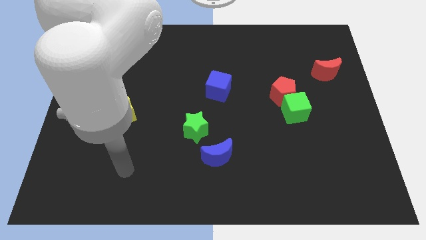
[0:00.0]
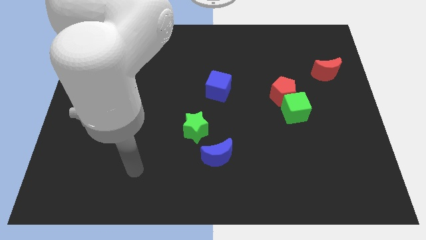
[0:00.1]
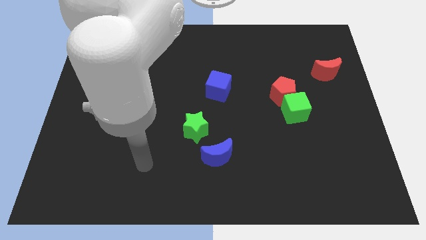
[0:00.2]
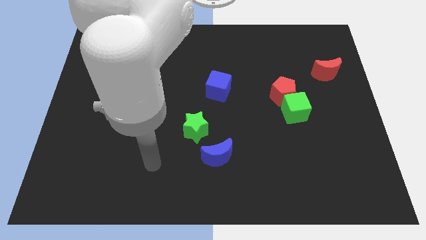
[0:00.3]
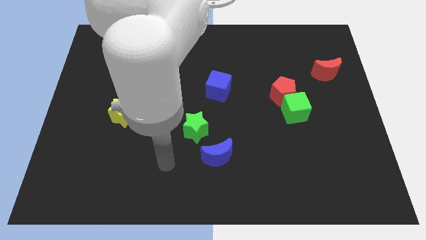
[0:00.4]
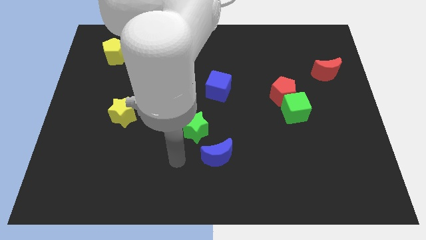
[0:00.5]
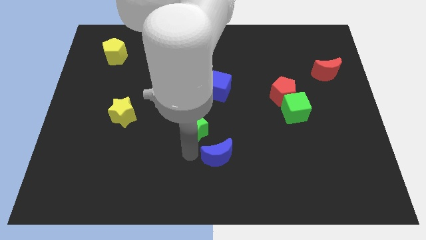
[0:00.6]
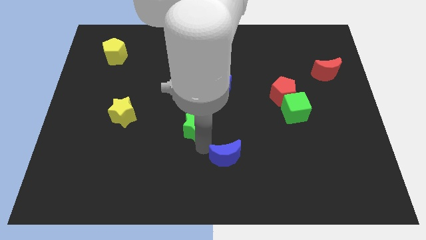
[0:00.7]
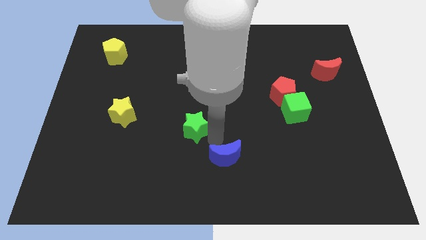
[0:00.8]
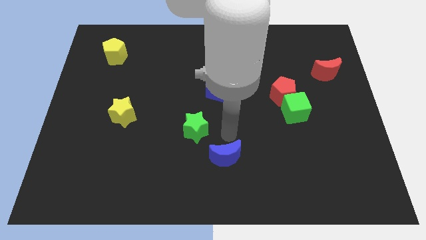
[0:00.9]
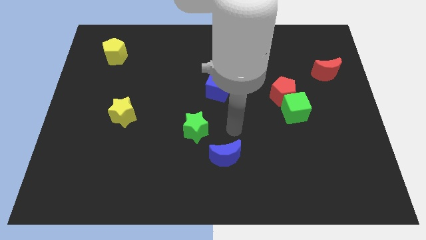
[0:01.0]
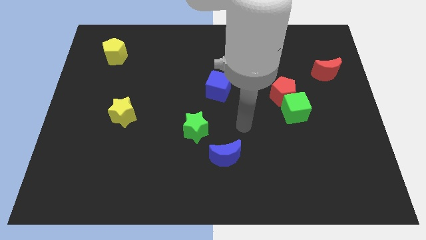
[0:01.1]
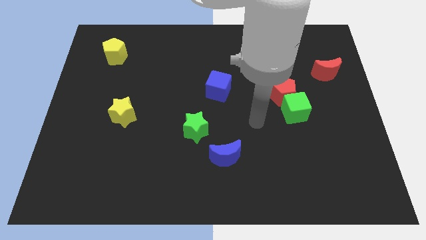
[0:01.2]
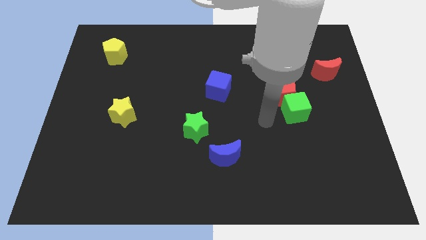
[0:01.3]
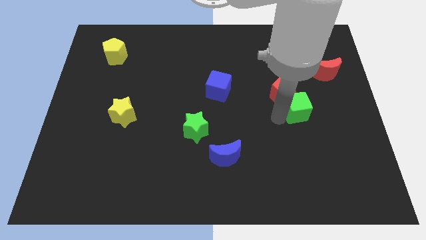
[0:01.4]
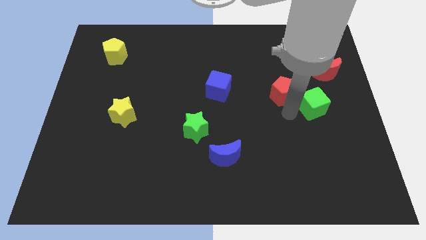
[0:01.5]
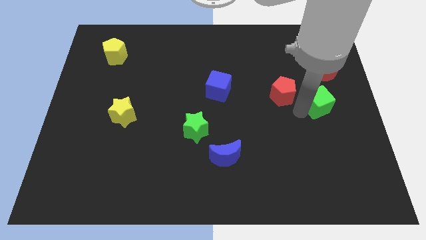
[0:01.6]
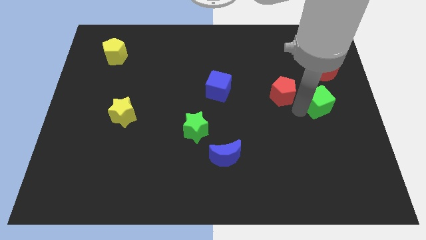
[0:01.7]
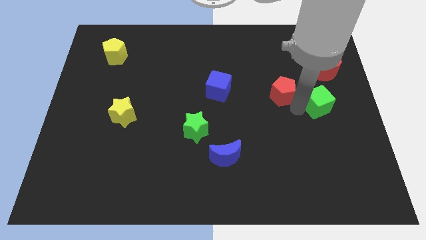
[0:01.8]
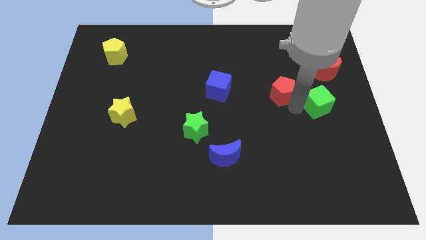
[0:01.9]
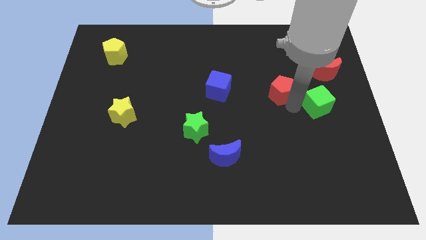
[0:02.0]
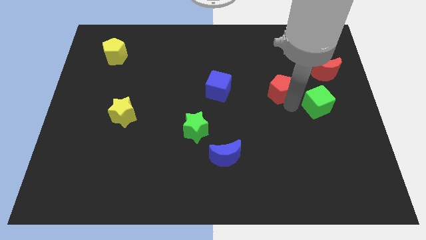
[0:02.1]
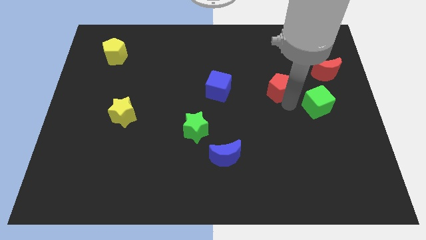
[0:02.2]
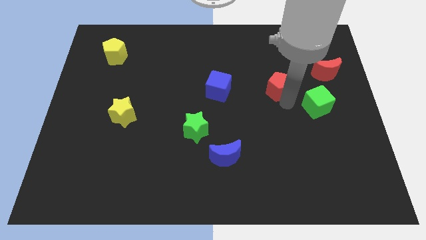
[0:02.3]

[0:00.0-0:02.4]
pull the red pentagon apart from the green cube

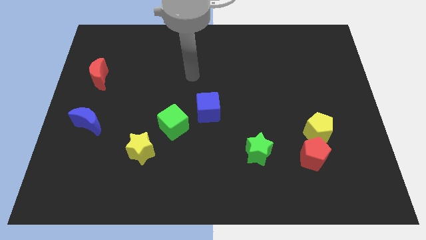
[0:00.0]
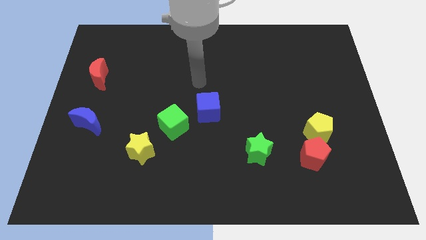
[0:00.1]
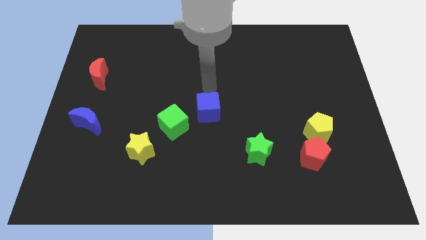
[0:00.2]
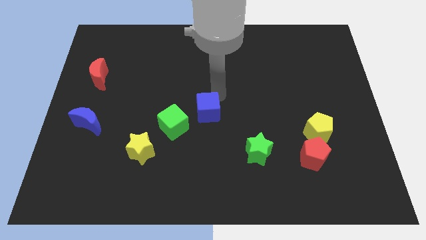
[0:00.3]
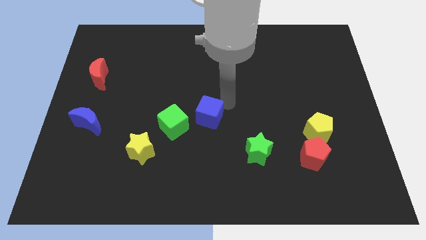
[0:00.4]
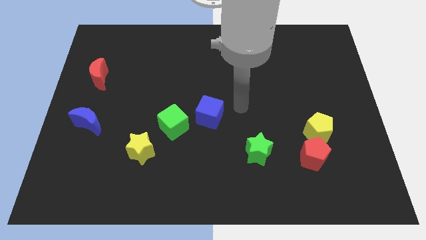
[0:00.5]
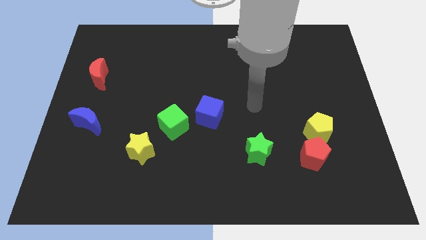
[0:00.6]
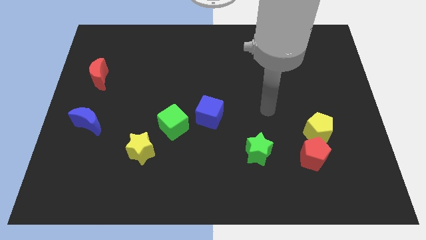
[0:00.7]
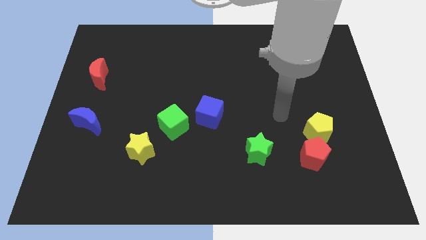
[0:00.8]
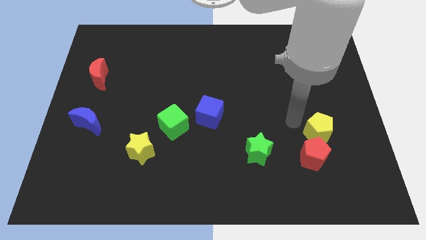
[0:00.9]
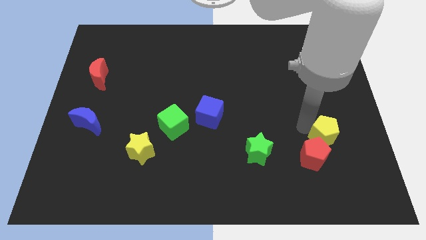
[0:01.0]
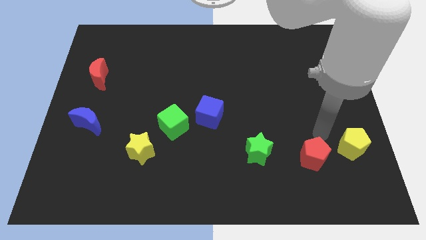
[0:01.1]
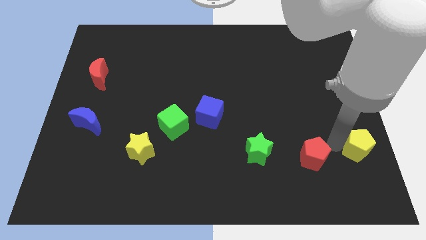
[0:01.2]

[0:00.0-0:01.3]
pull the red pentagon apart from the yellow pentagon

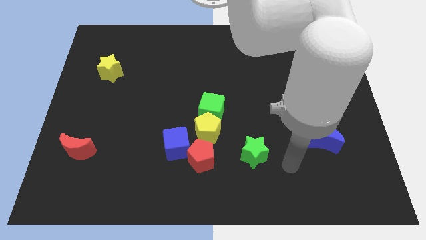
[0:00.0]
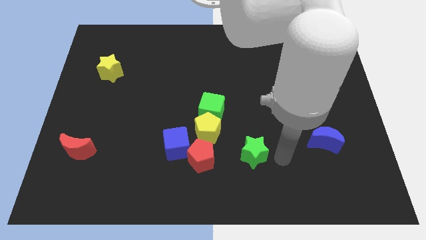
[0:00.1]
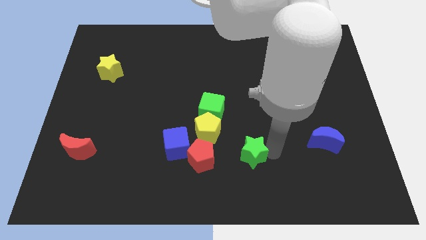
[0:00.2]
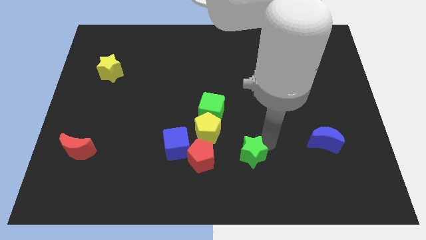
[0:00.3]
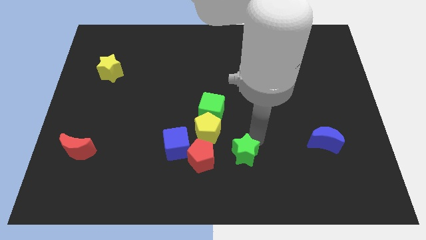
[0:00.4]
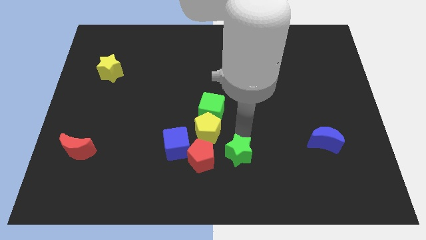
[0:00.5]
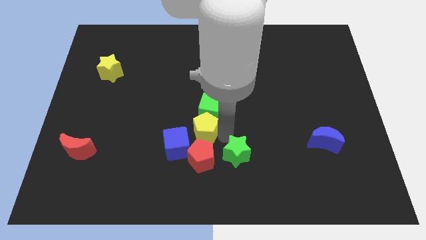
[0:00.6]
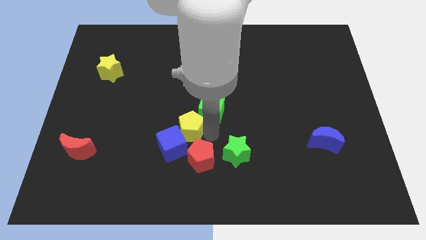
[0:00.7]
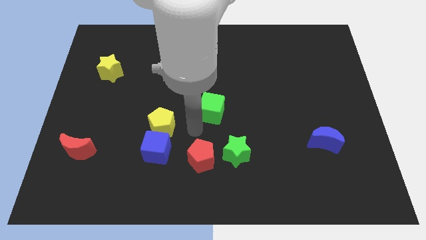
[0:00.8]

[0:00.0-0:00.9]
pull the green cube apart from the yellow pentagon

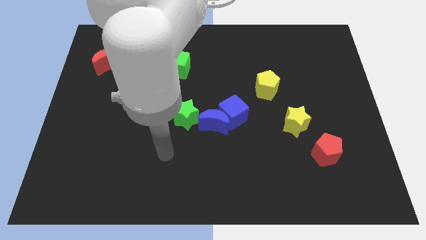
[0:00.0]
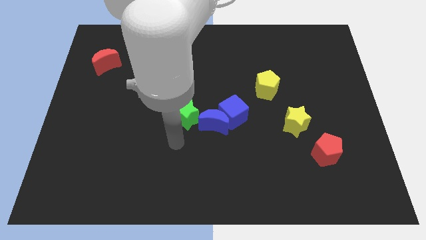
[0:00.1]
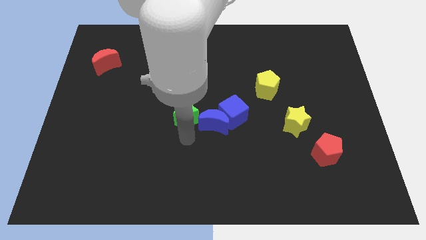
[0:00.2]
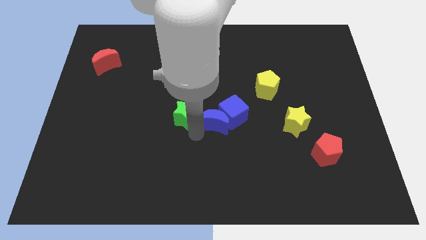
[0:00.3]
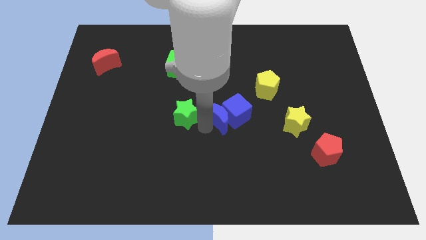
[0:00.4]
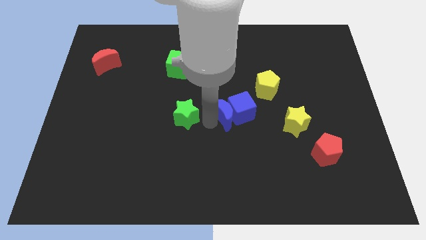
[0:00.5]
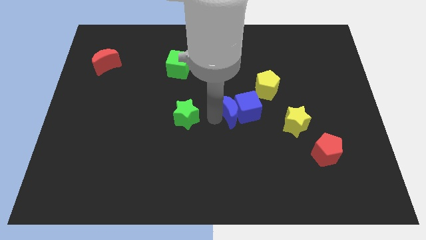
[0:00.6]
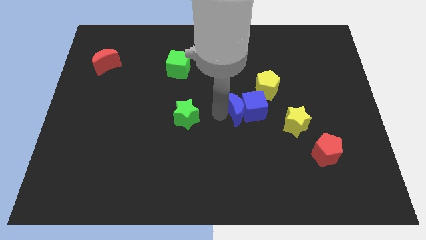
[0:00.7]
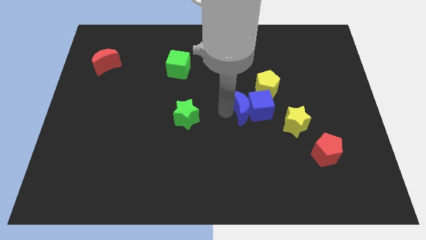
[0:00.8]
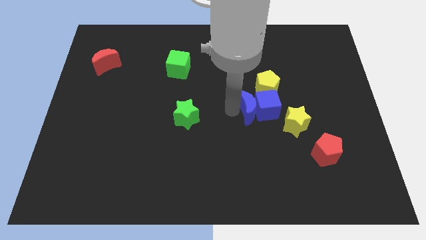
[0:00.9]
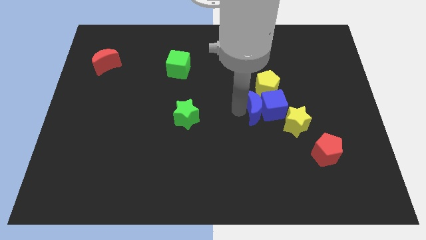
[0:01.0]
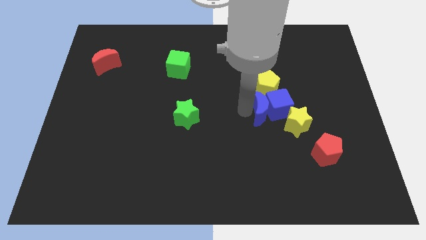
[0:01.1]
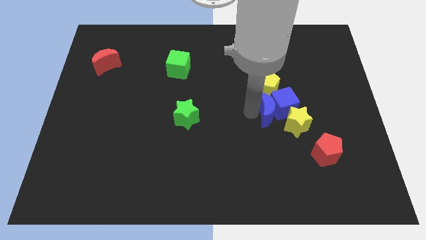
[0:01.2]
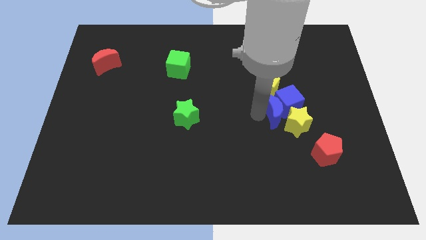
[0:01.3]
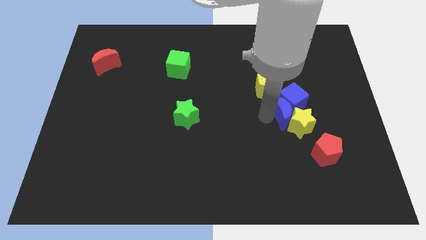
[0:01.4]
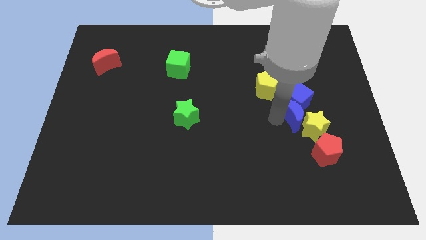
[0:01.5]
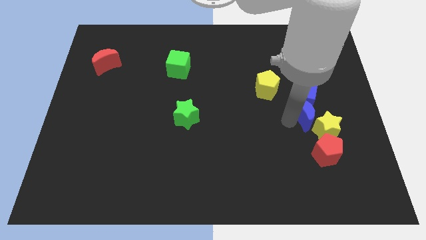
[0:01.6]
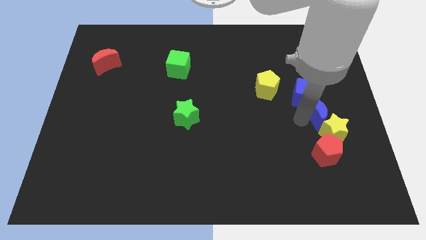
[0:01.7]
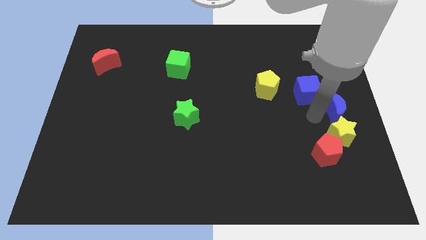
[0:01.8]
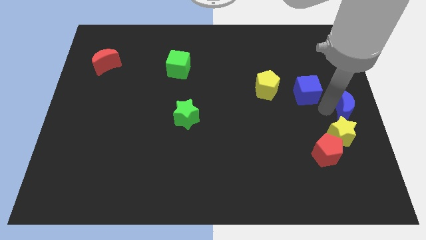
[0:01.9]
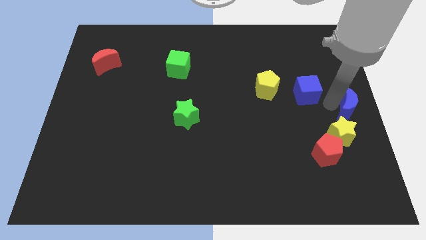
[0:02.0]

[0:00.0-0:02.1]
separate the blue cube from the blue moon

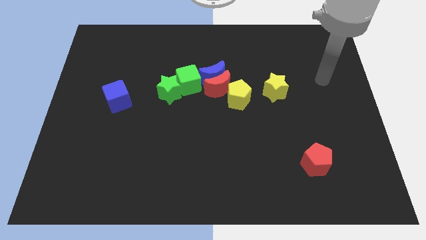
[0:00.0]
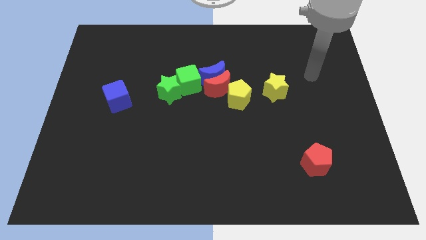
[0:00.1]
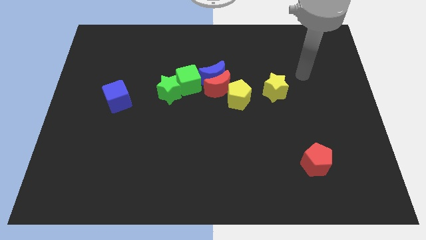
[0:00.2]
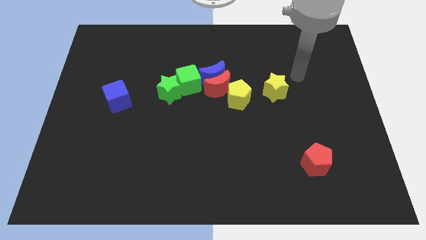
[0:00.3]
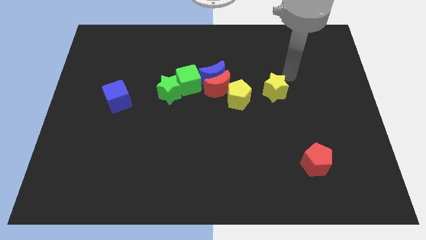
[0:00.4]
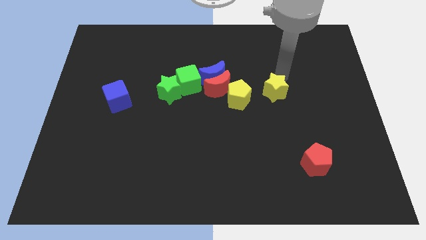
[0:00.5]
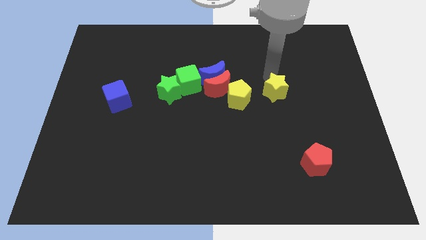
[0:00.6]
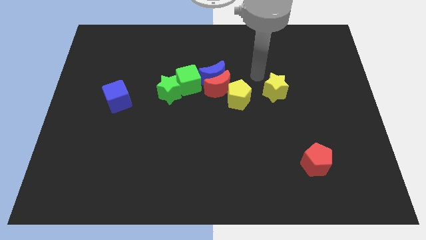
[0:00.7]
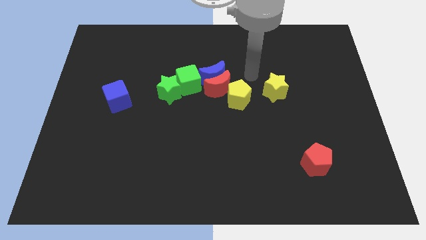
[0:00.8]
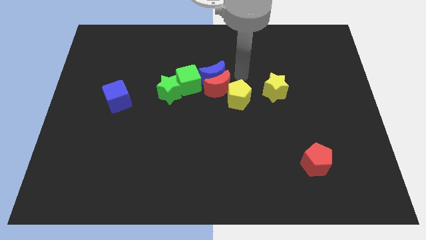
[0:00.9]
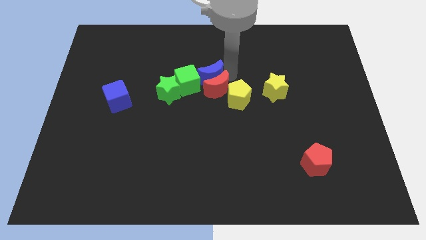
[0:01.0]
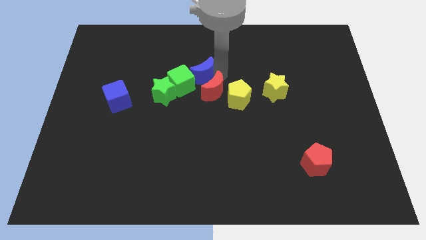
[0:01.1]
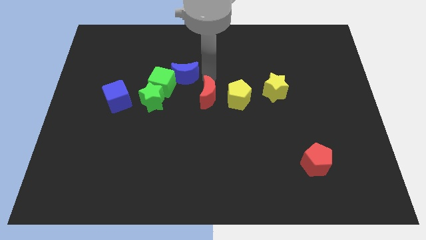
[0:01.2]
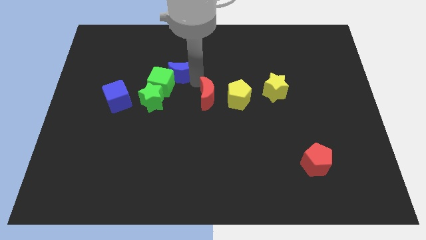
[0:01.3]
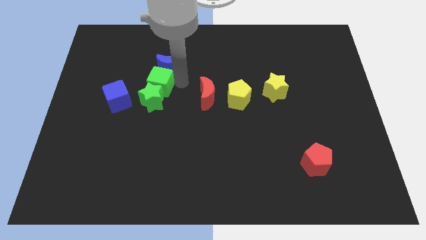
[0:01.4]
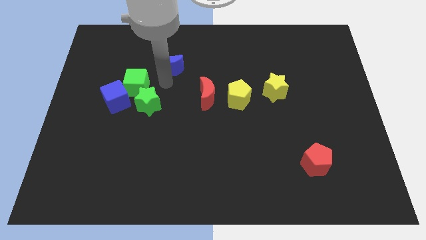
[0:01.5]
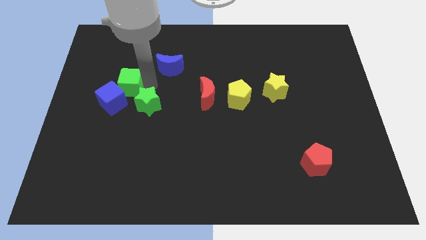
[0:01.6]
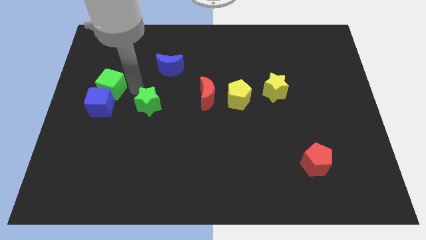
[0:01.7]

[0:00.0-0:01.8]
pull the green star apart from the green cube

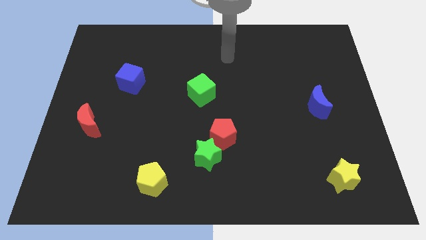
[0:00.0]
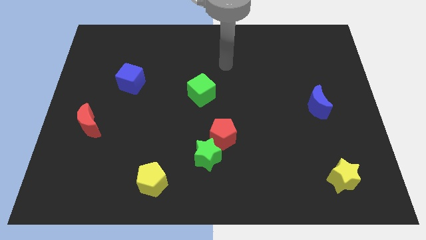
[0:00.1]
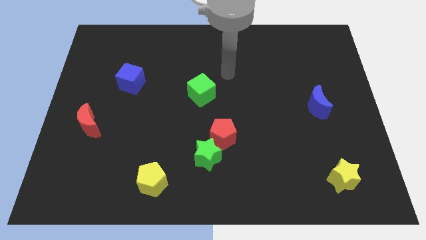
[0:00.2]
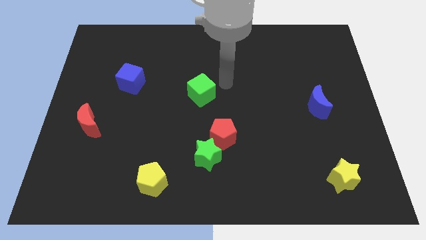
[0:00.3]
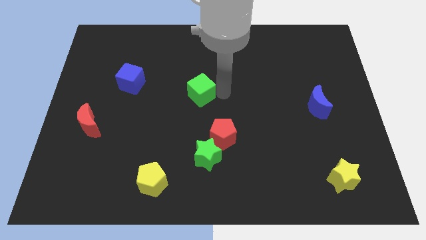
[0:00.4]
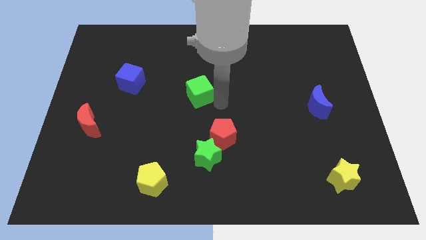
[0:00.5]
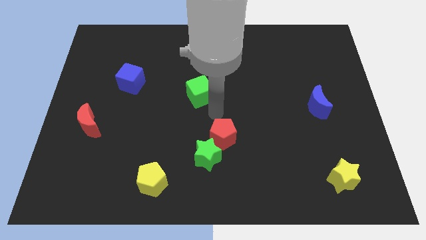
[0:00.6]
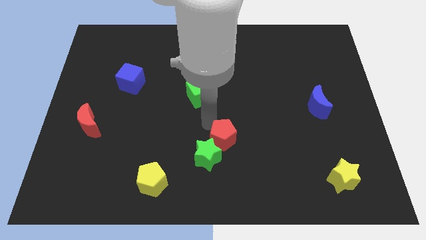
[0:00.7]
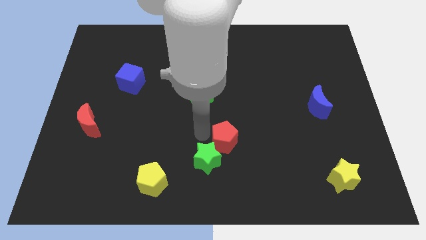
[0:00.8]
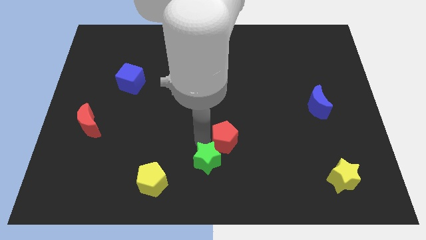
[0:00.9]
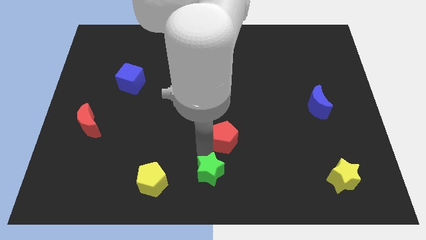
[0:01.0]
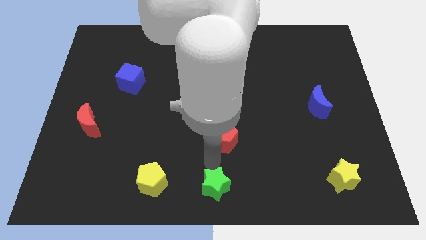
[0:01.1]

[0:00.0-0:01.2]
separate the red pentagon from the green star
